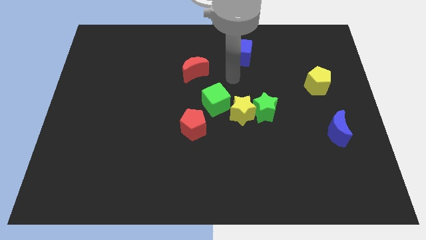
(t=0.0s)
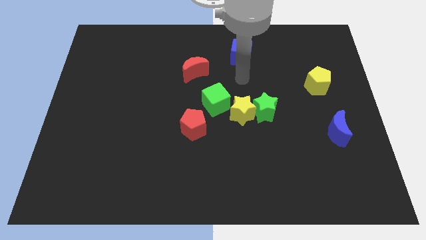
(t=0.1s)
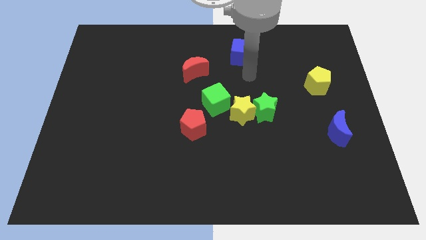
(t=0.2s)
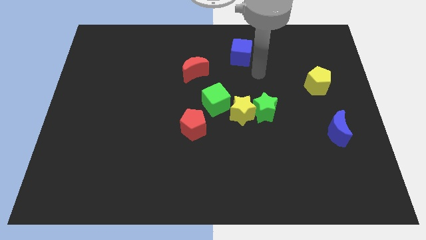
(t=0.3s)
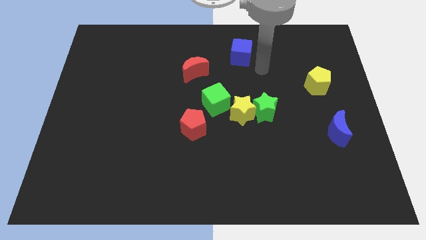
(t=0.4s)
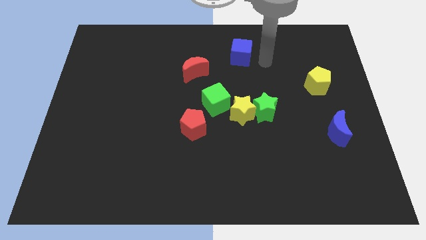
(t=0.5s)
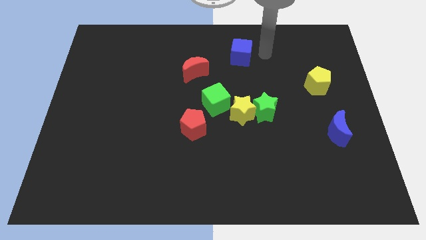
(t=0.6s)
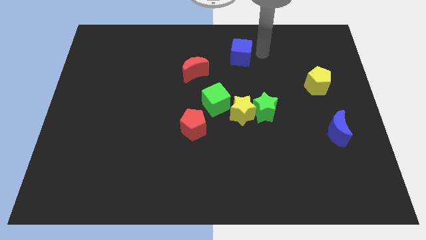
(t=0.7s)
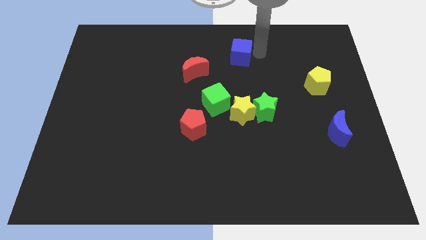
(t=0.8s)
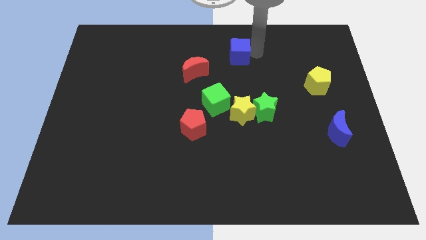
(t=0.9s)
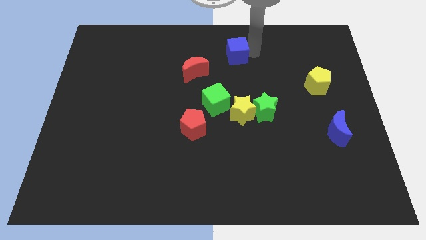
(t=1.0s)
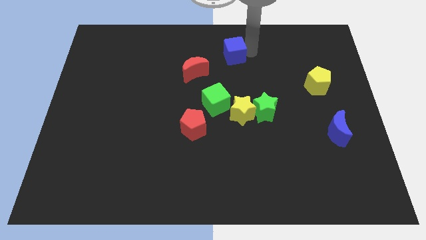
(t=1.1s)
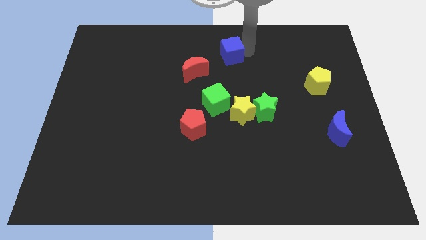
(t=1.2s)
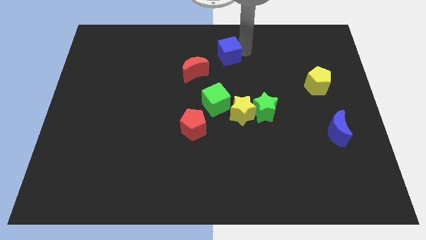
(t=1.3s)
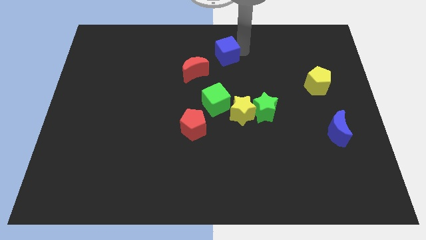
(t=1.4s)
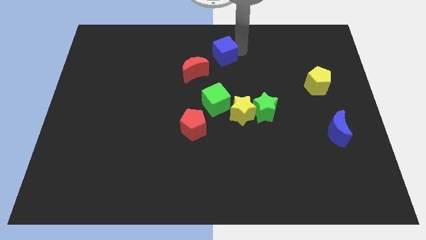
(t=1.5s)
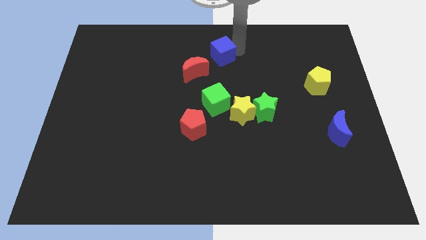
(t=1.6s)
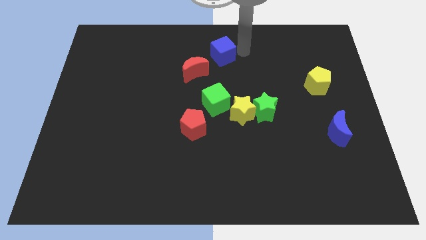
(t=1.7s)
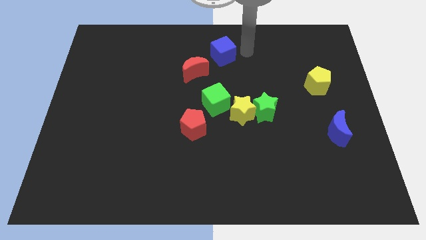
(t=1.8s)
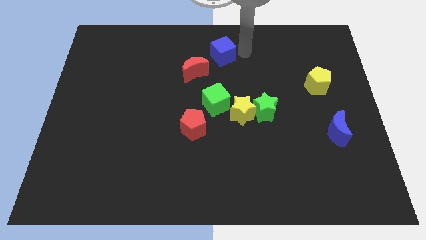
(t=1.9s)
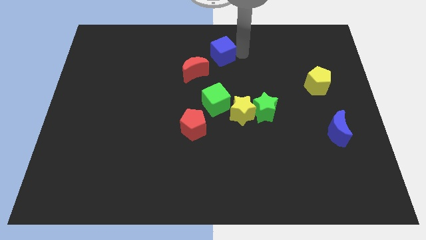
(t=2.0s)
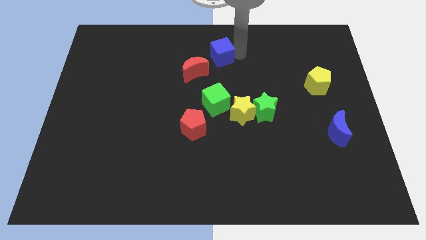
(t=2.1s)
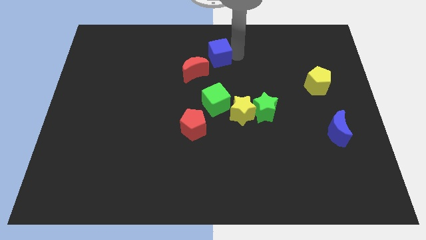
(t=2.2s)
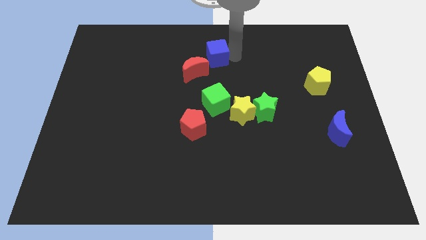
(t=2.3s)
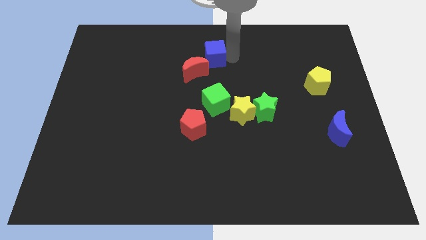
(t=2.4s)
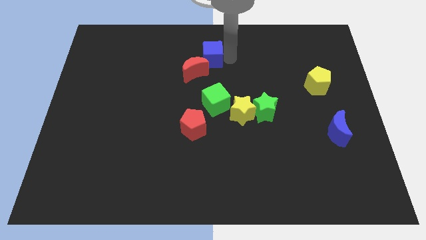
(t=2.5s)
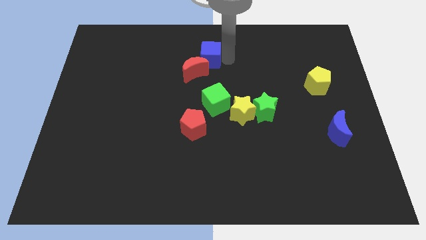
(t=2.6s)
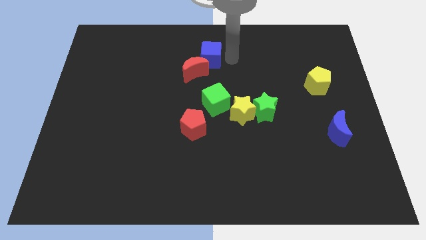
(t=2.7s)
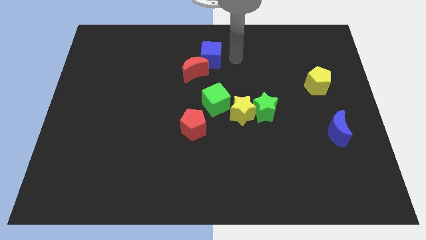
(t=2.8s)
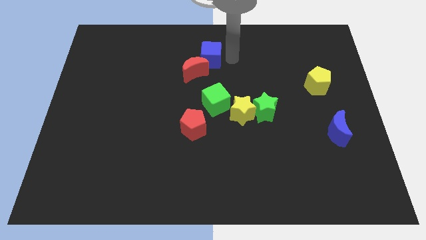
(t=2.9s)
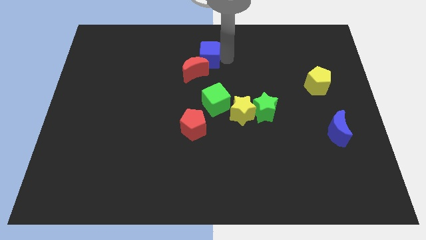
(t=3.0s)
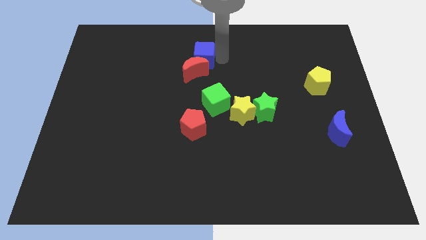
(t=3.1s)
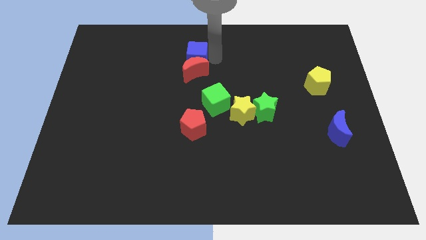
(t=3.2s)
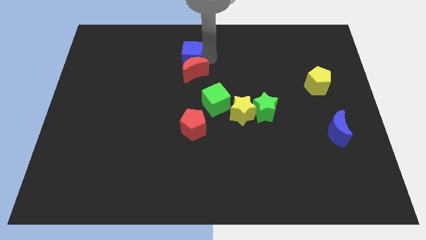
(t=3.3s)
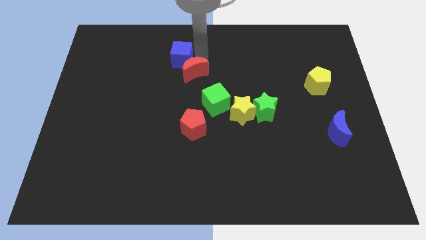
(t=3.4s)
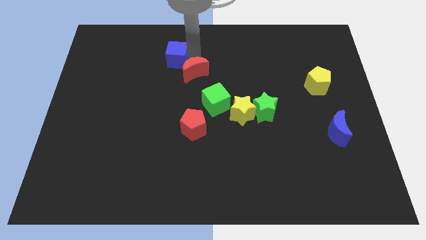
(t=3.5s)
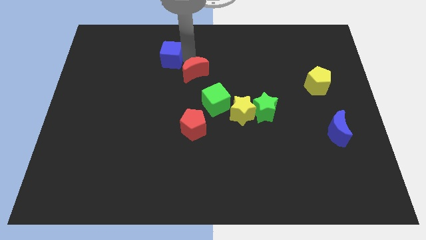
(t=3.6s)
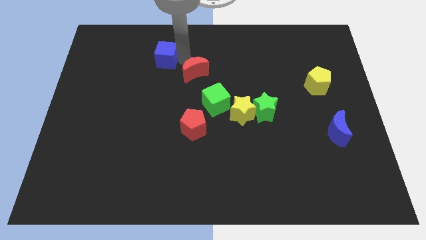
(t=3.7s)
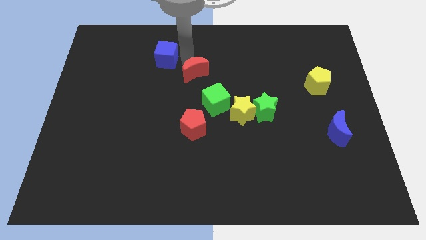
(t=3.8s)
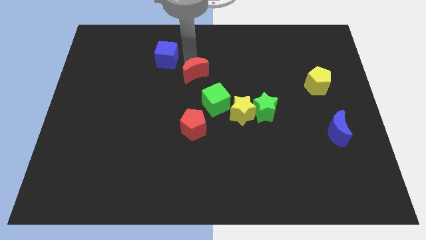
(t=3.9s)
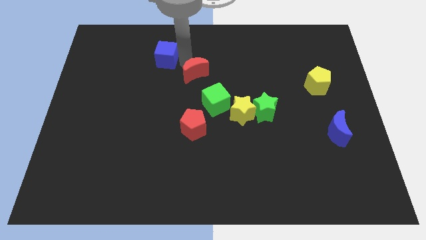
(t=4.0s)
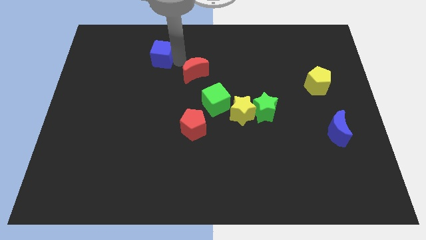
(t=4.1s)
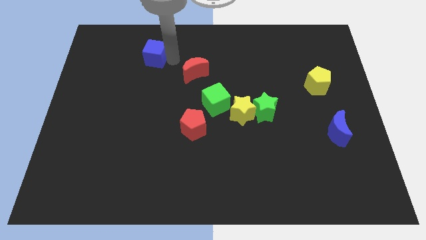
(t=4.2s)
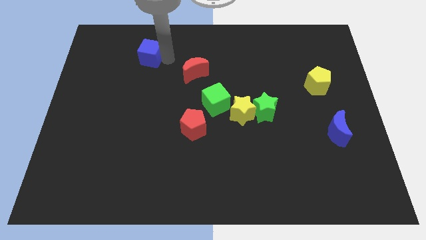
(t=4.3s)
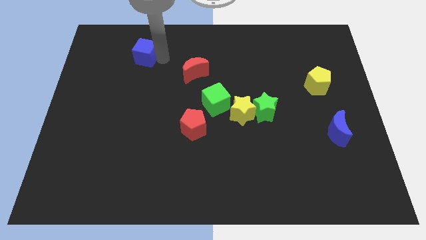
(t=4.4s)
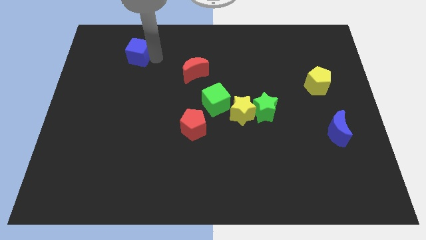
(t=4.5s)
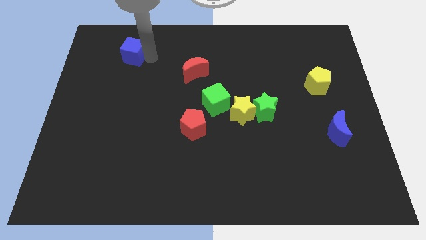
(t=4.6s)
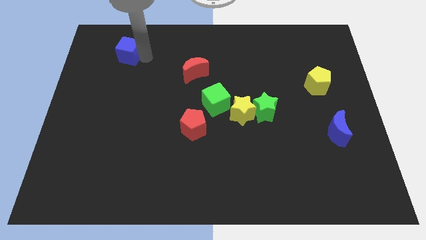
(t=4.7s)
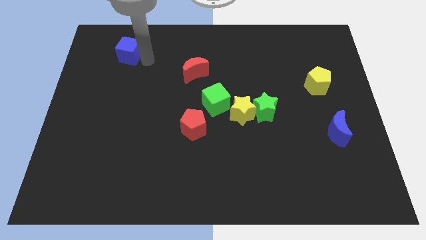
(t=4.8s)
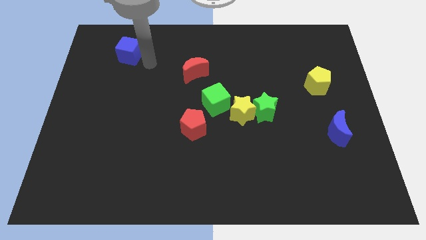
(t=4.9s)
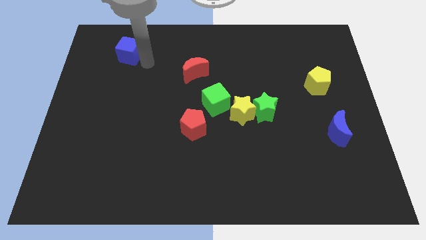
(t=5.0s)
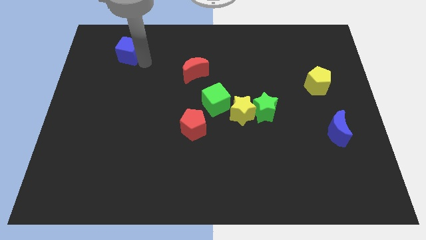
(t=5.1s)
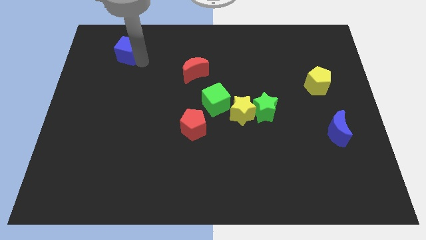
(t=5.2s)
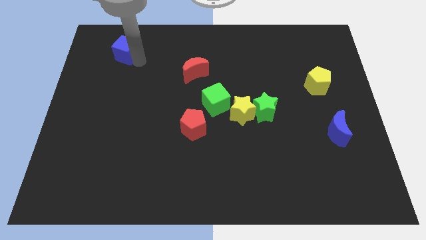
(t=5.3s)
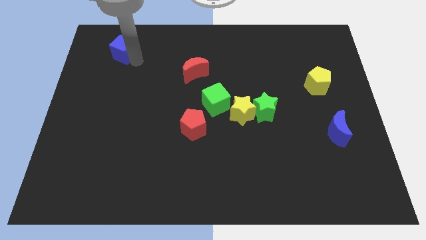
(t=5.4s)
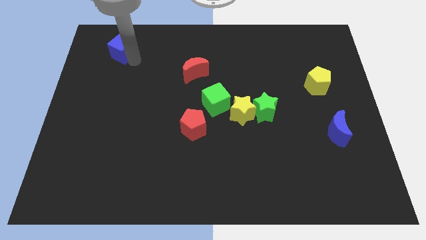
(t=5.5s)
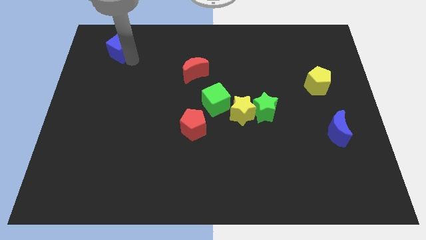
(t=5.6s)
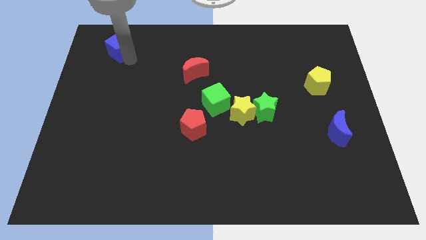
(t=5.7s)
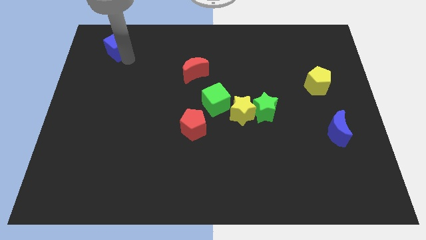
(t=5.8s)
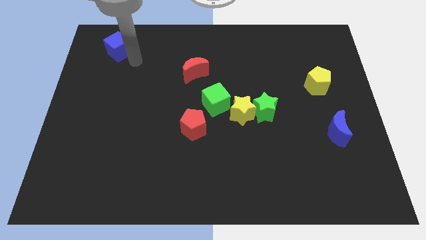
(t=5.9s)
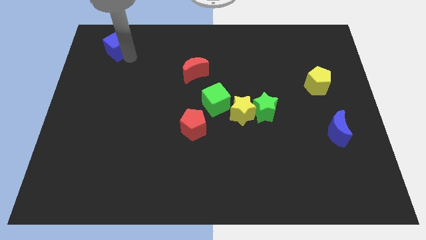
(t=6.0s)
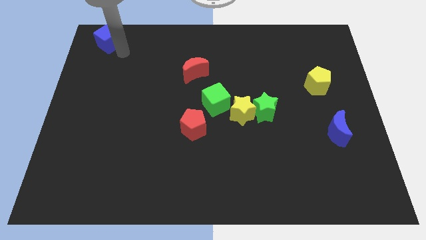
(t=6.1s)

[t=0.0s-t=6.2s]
slide the blue cube to the top left corner
